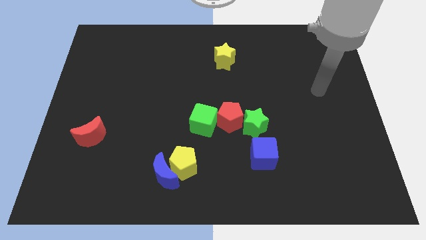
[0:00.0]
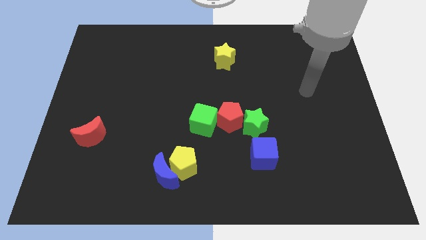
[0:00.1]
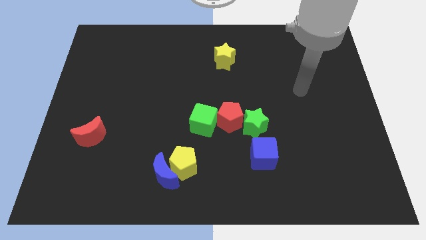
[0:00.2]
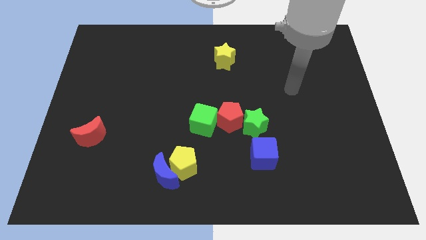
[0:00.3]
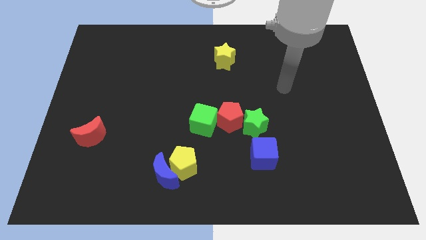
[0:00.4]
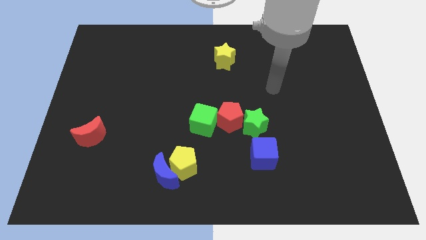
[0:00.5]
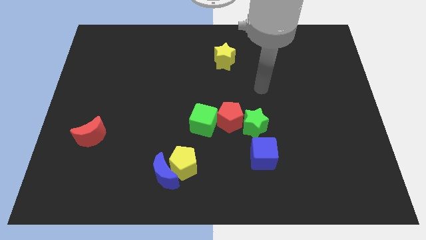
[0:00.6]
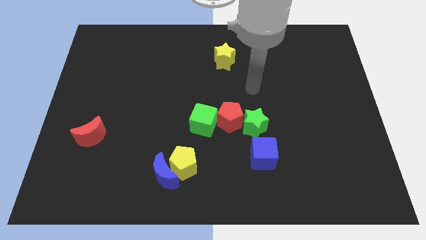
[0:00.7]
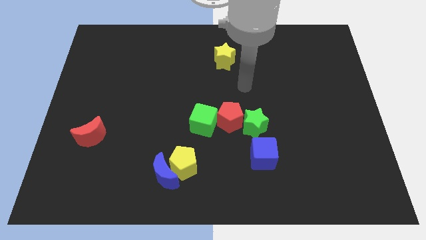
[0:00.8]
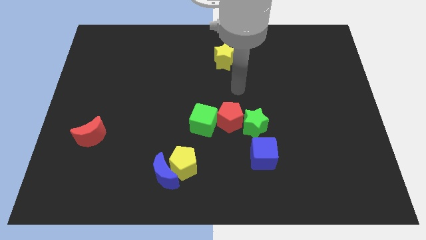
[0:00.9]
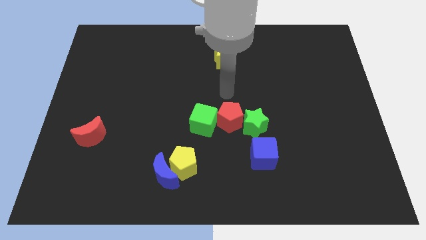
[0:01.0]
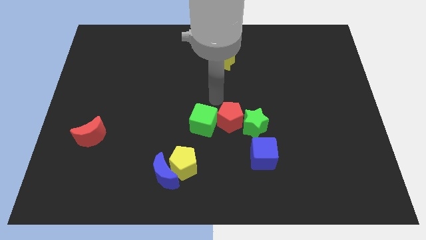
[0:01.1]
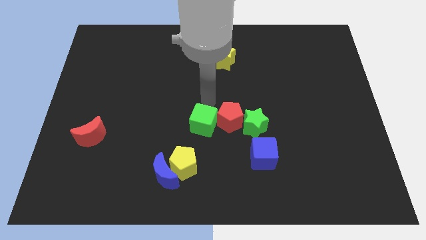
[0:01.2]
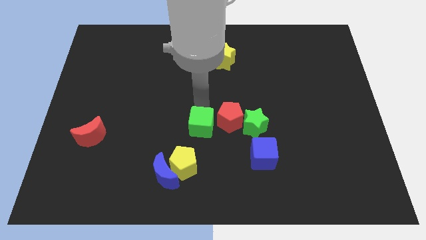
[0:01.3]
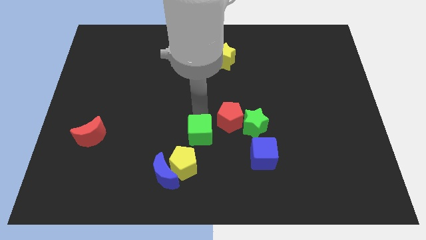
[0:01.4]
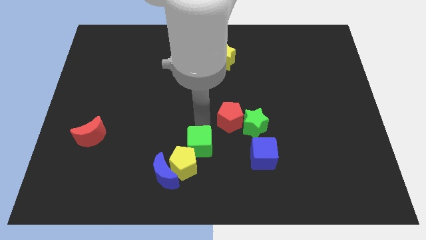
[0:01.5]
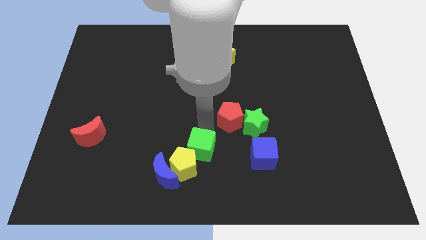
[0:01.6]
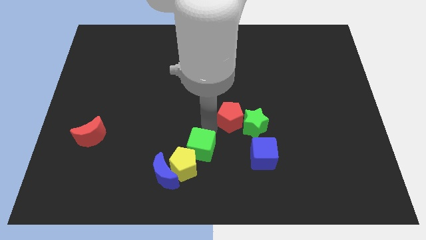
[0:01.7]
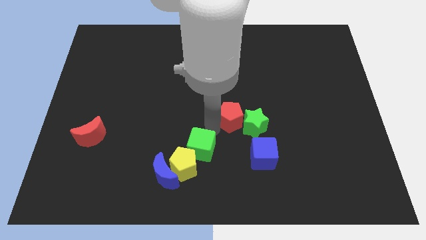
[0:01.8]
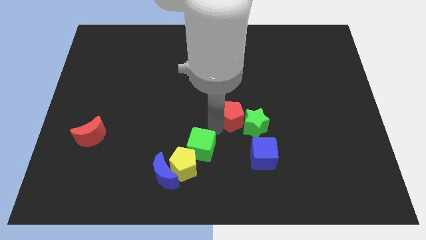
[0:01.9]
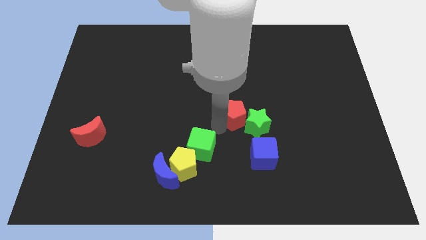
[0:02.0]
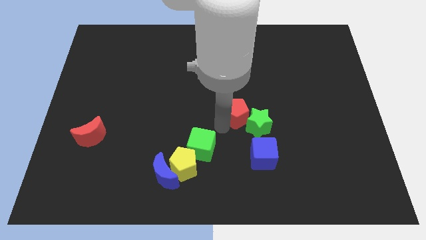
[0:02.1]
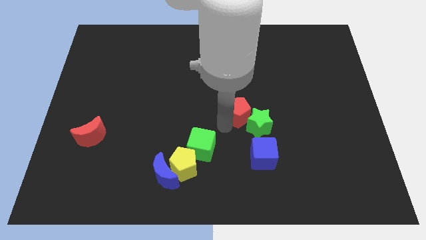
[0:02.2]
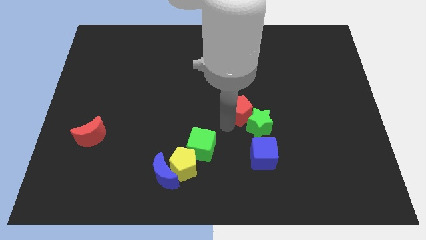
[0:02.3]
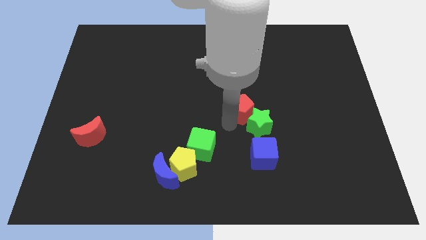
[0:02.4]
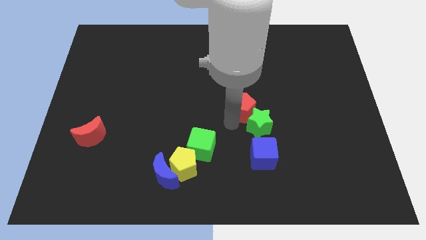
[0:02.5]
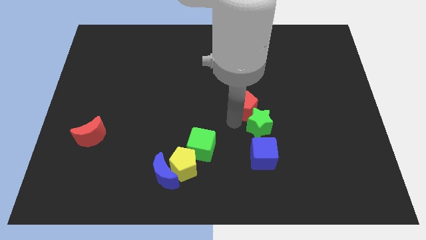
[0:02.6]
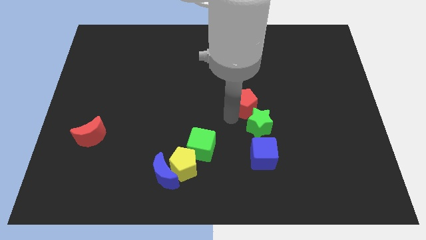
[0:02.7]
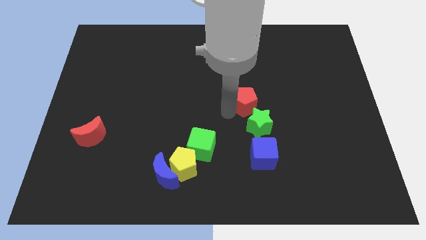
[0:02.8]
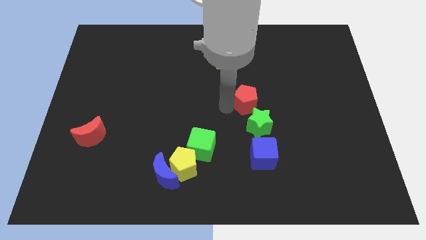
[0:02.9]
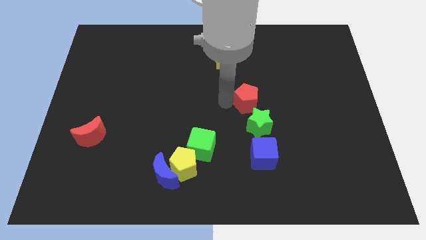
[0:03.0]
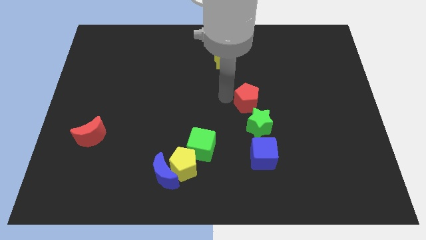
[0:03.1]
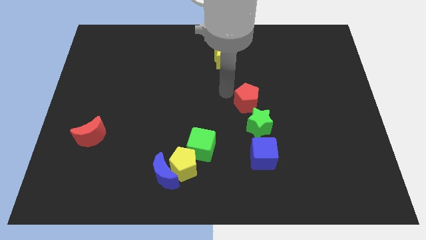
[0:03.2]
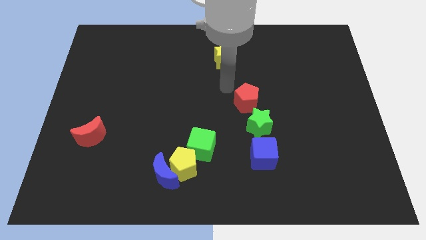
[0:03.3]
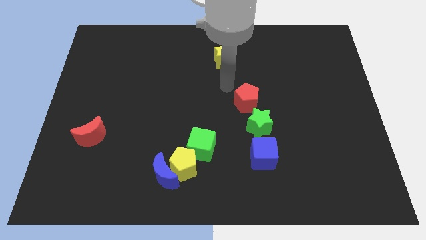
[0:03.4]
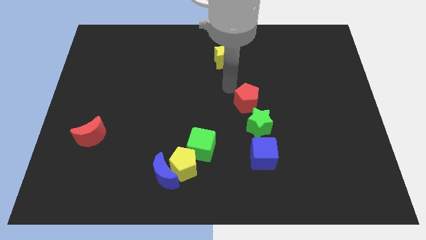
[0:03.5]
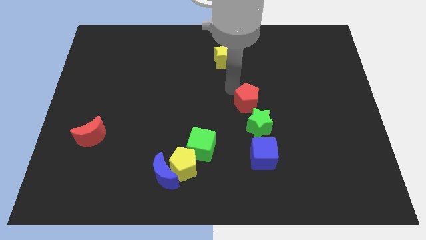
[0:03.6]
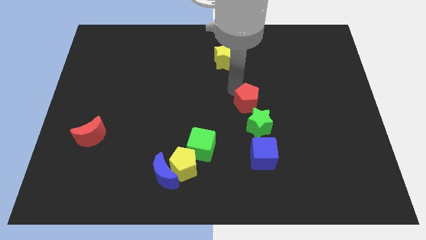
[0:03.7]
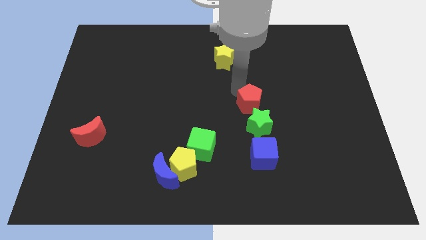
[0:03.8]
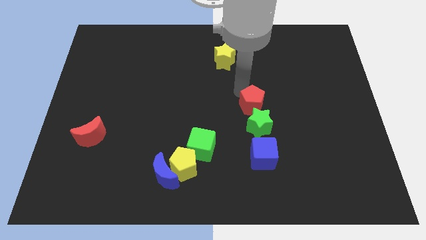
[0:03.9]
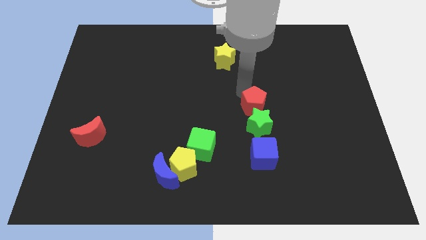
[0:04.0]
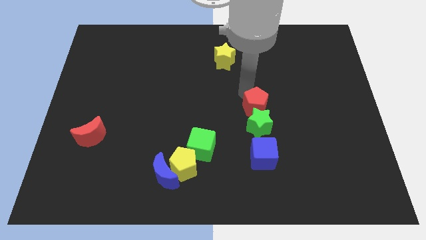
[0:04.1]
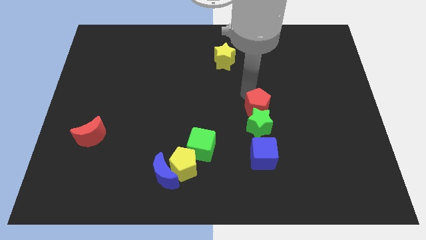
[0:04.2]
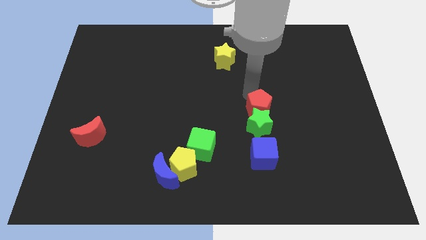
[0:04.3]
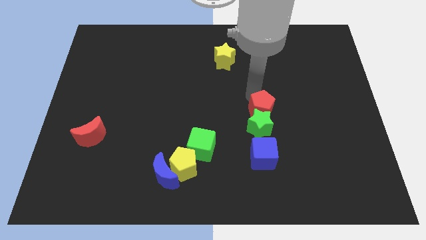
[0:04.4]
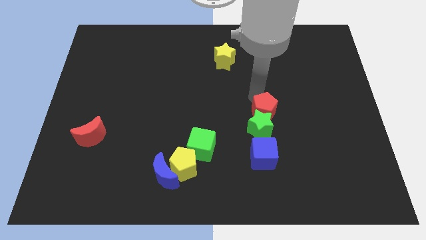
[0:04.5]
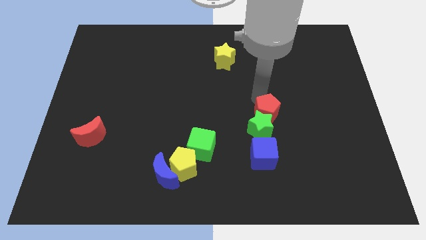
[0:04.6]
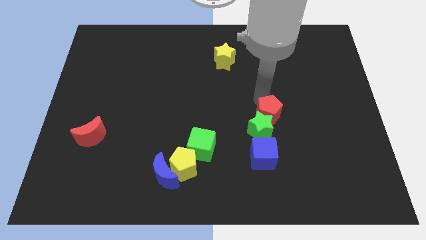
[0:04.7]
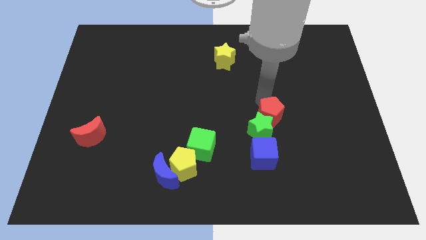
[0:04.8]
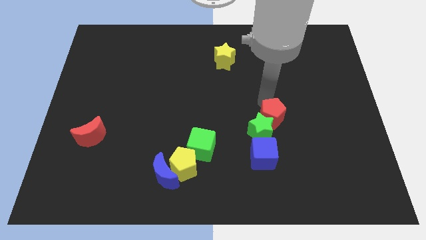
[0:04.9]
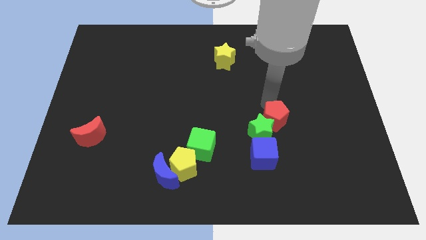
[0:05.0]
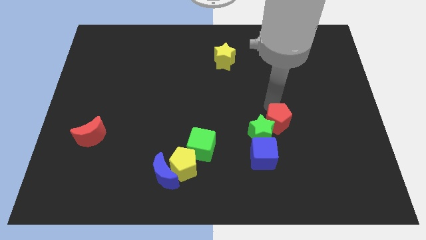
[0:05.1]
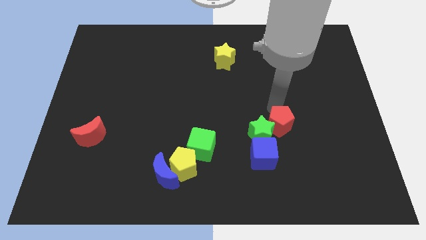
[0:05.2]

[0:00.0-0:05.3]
slightly move the red pentagon diagonally down and right

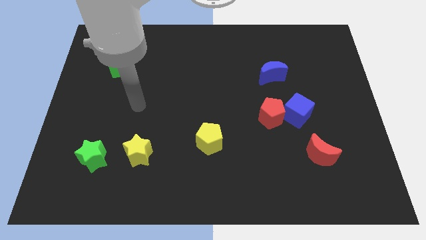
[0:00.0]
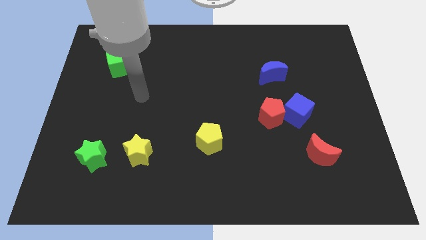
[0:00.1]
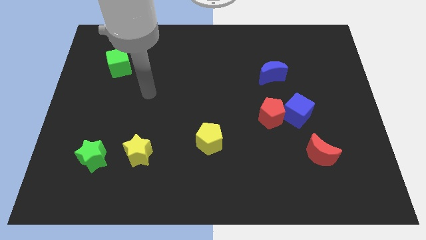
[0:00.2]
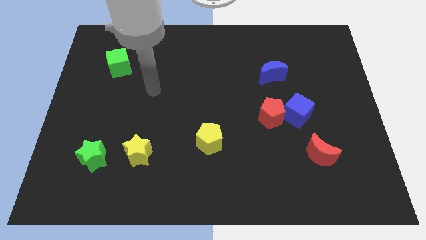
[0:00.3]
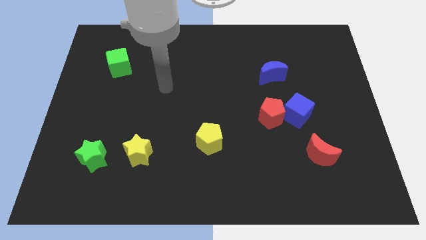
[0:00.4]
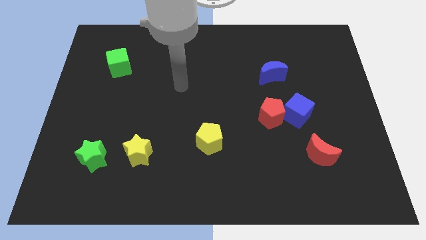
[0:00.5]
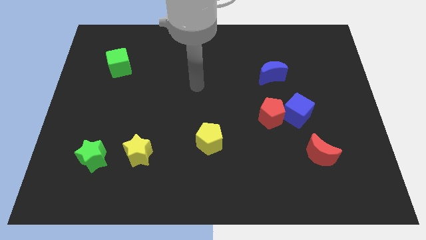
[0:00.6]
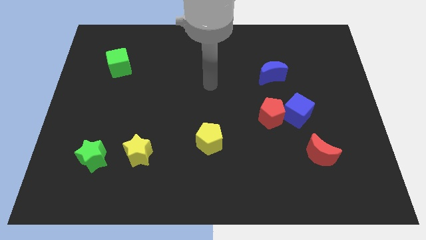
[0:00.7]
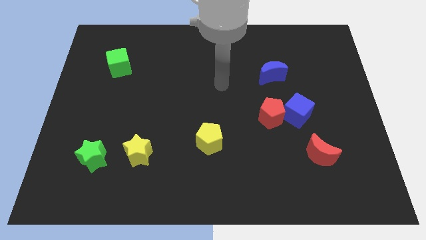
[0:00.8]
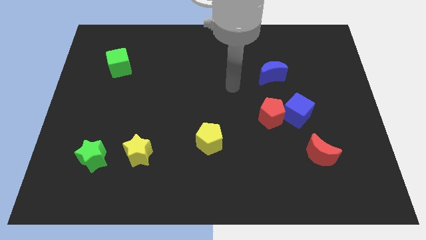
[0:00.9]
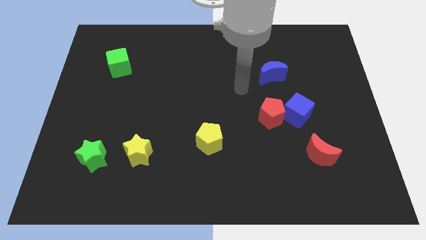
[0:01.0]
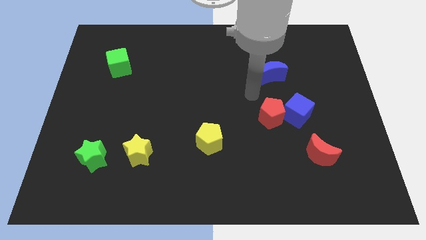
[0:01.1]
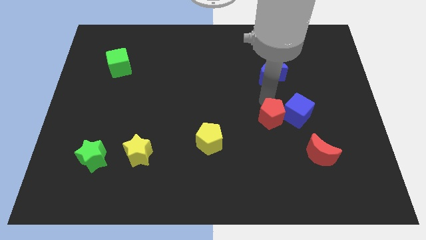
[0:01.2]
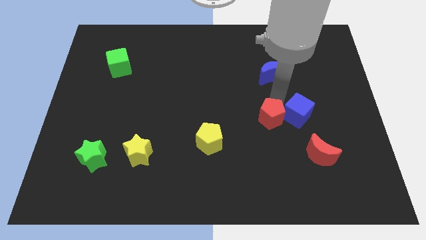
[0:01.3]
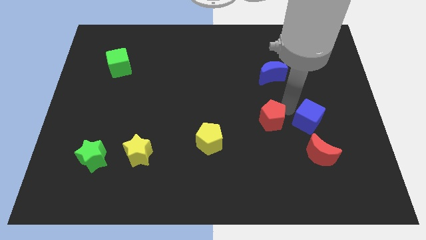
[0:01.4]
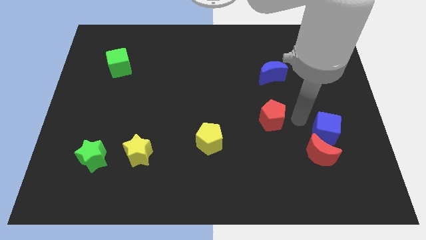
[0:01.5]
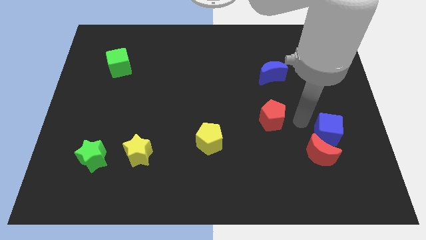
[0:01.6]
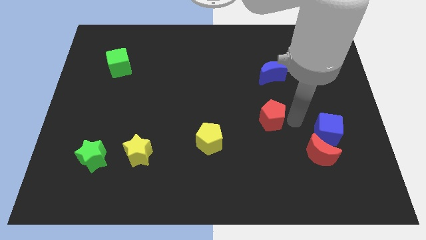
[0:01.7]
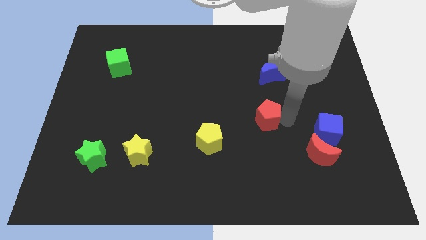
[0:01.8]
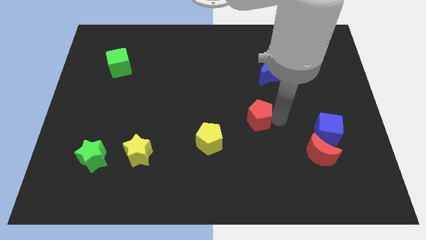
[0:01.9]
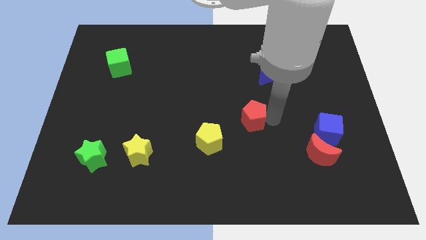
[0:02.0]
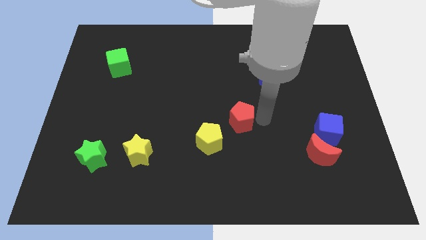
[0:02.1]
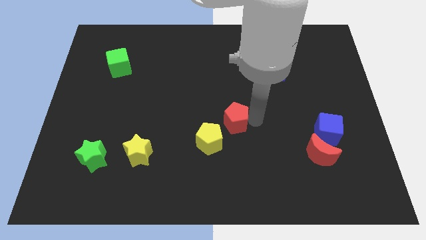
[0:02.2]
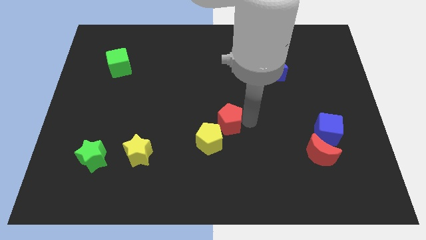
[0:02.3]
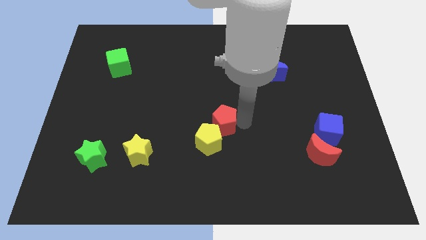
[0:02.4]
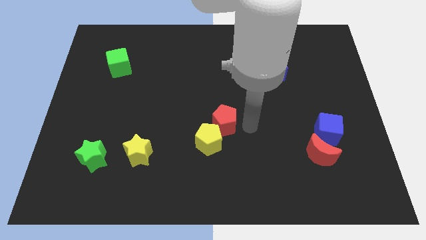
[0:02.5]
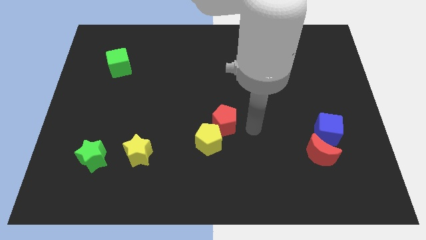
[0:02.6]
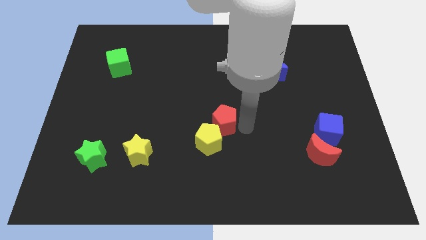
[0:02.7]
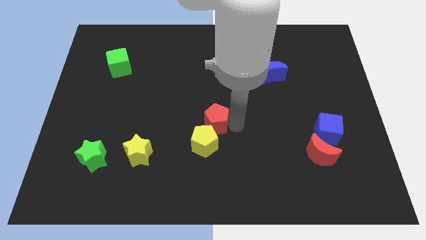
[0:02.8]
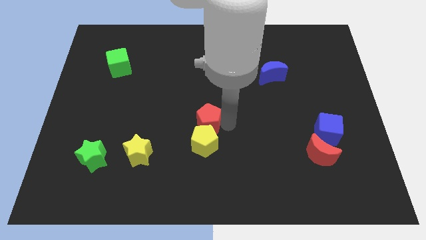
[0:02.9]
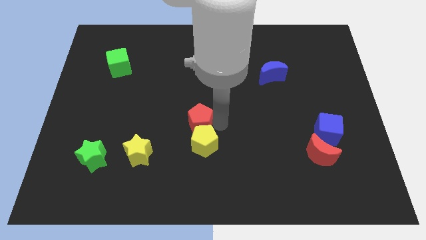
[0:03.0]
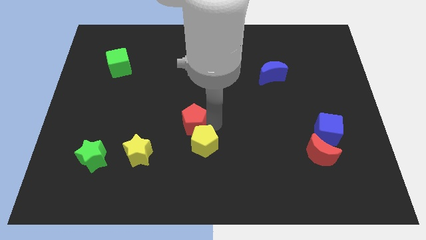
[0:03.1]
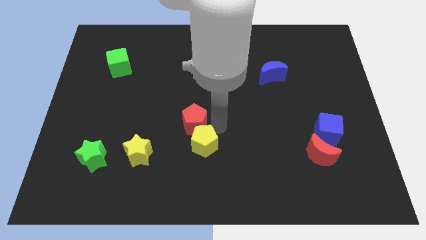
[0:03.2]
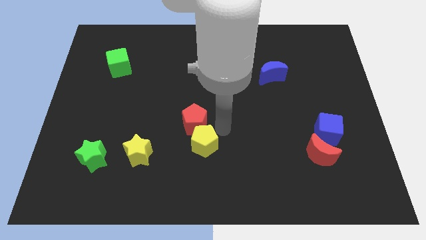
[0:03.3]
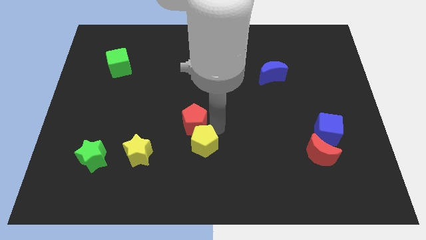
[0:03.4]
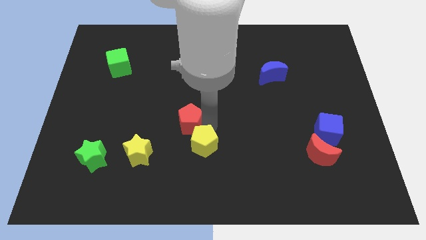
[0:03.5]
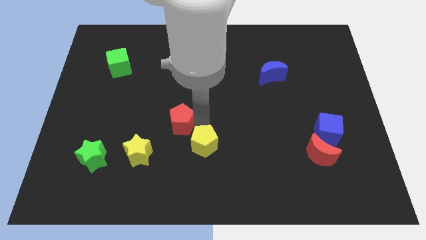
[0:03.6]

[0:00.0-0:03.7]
slide the red pentagon left
